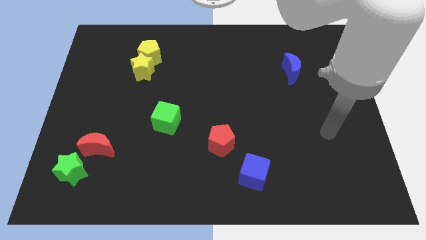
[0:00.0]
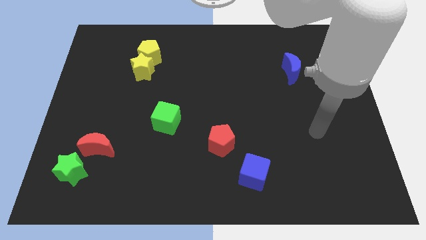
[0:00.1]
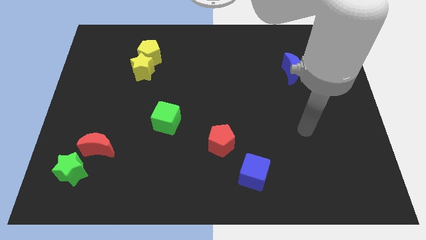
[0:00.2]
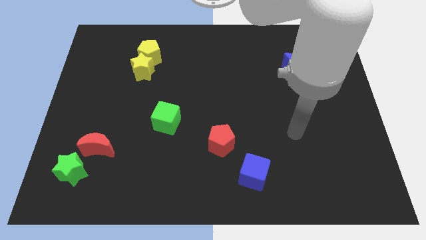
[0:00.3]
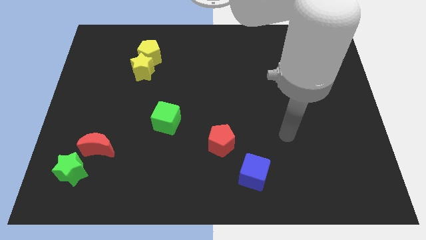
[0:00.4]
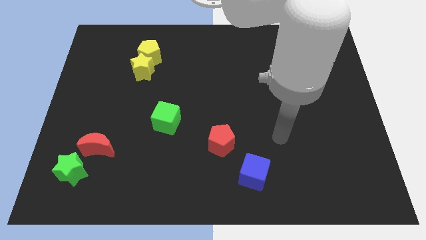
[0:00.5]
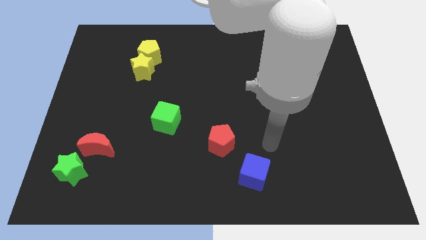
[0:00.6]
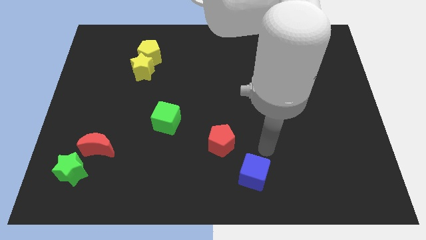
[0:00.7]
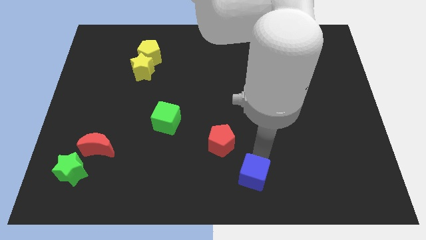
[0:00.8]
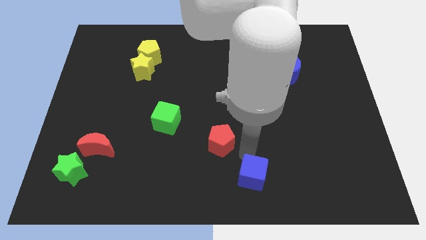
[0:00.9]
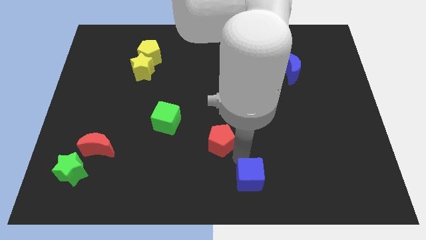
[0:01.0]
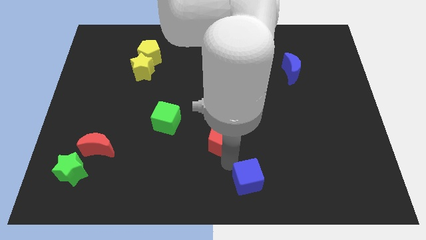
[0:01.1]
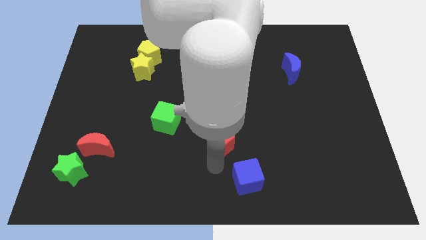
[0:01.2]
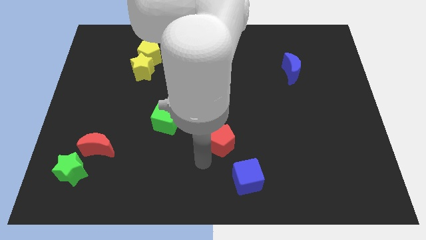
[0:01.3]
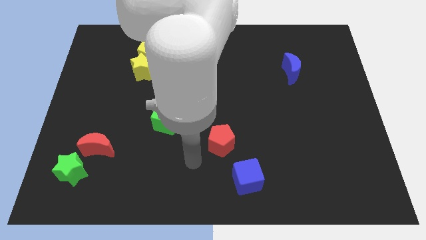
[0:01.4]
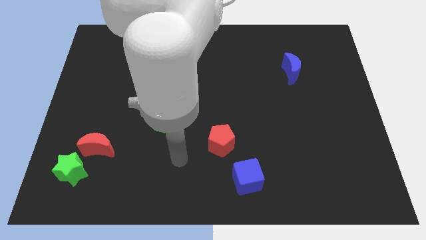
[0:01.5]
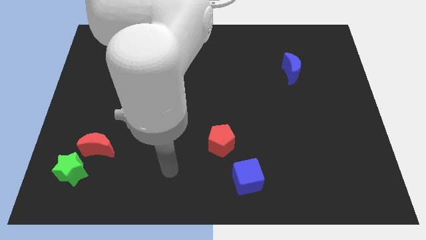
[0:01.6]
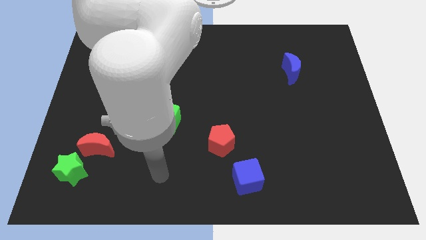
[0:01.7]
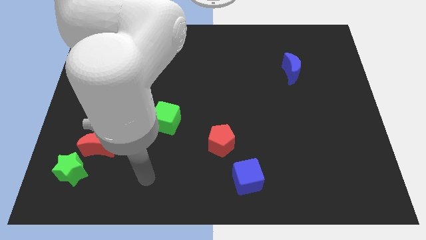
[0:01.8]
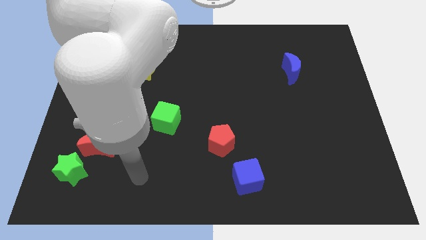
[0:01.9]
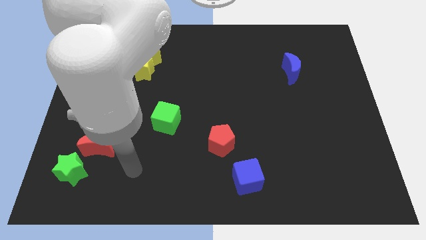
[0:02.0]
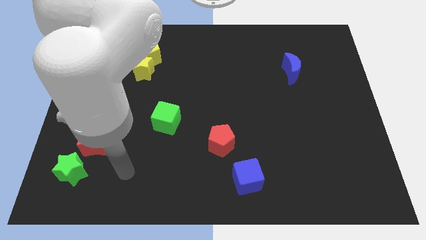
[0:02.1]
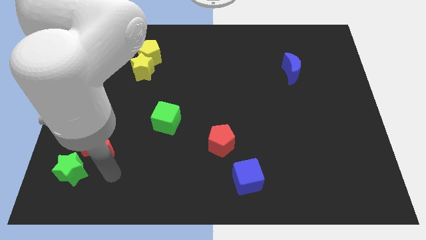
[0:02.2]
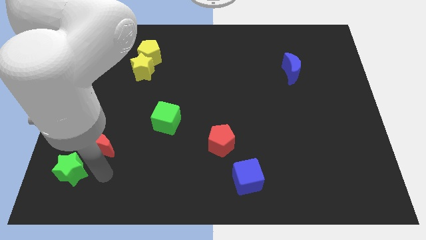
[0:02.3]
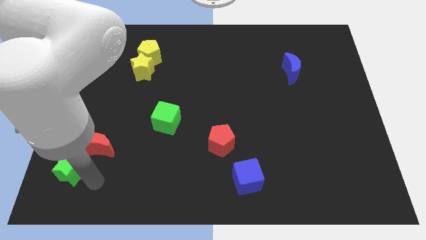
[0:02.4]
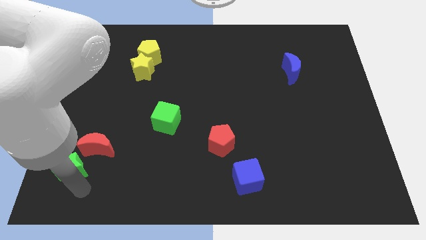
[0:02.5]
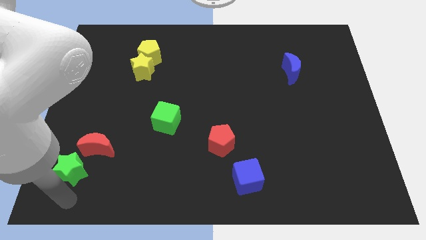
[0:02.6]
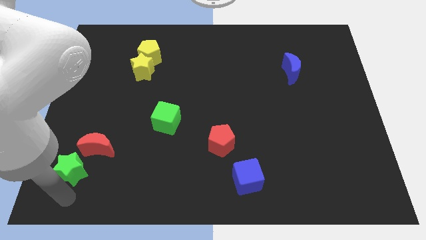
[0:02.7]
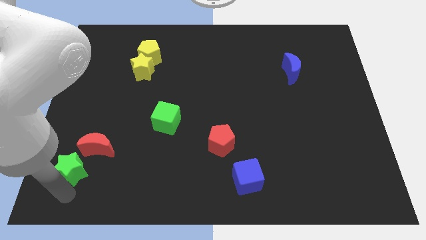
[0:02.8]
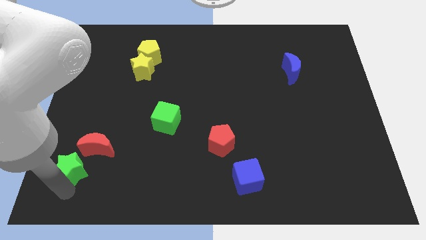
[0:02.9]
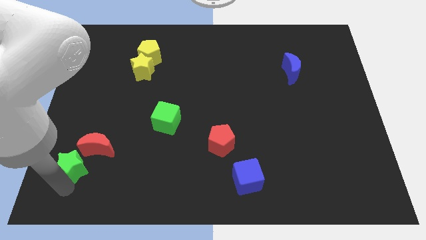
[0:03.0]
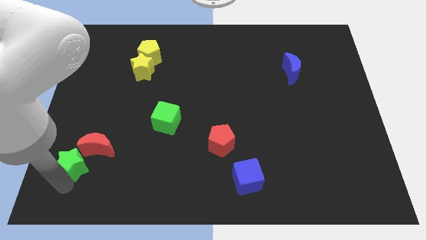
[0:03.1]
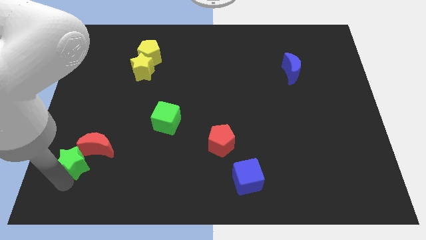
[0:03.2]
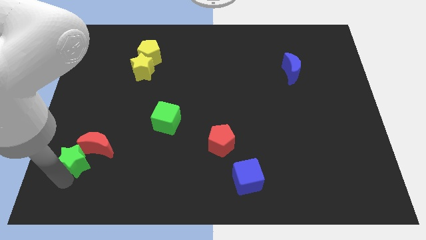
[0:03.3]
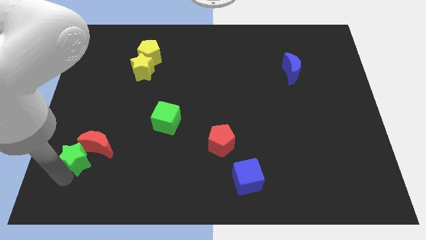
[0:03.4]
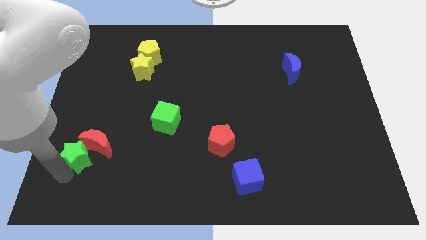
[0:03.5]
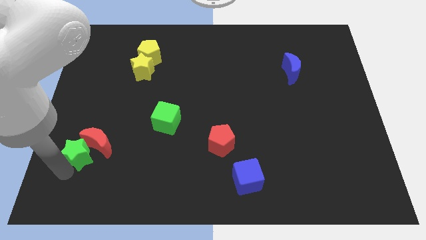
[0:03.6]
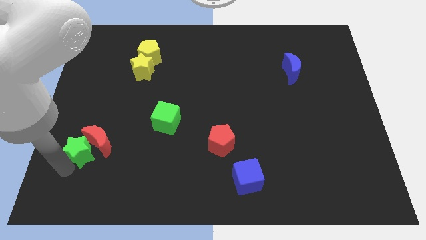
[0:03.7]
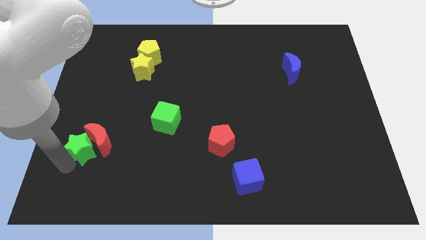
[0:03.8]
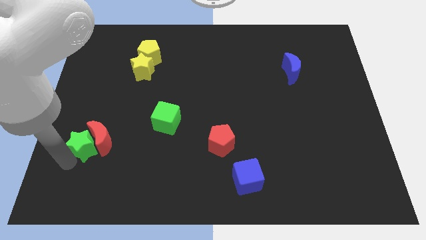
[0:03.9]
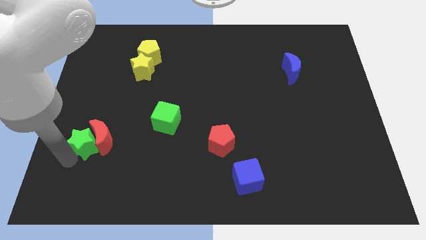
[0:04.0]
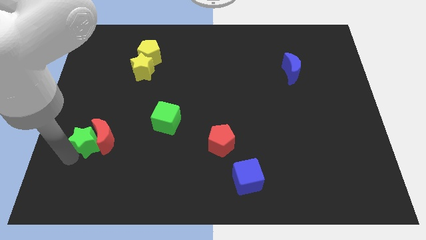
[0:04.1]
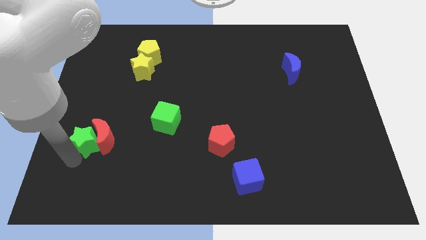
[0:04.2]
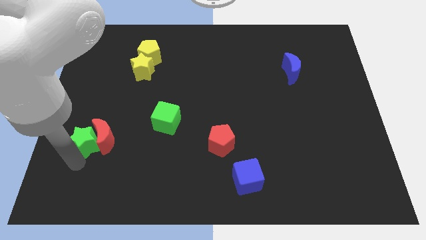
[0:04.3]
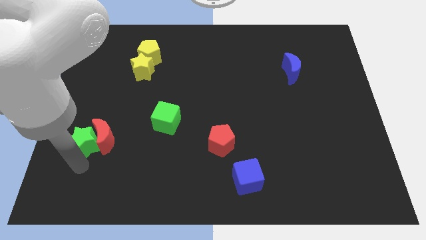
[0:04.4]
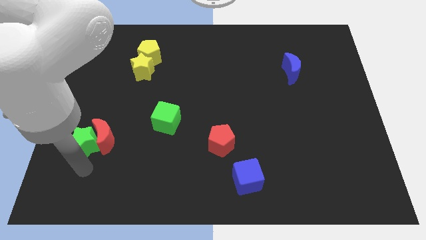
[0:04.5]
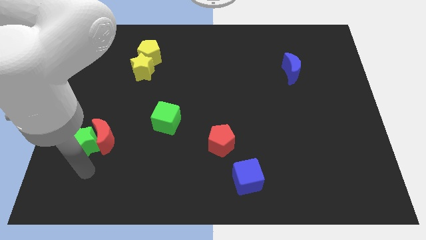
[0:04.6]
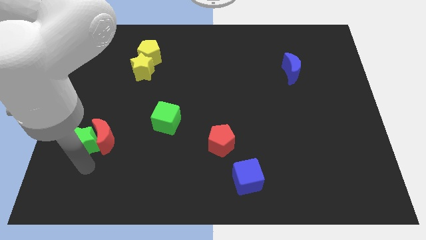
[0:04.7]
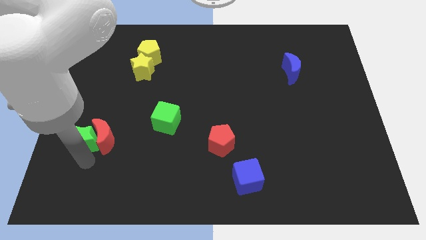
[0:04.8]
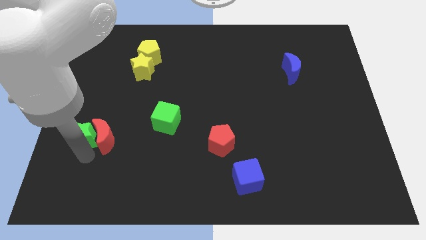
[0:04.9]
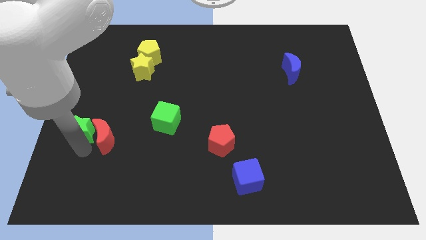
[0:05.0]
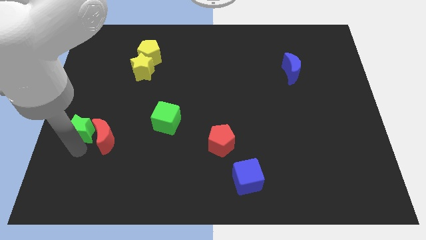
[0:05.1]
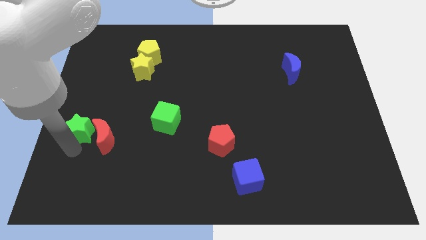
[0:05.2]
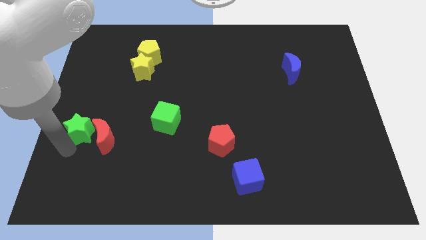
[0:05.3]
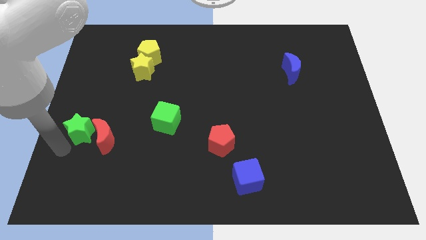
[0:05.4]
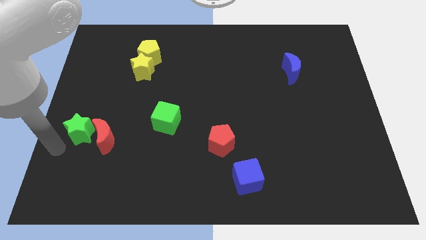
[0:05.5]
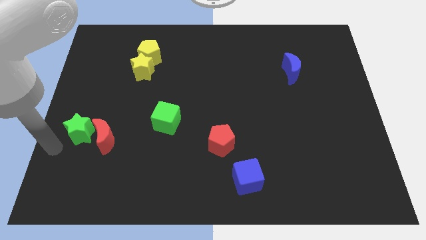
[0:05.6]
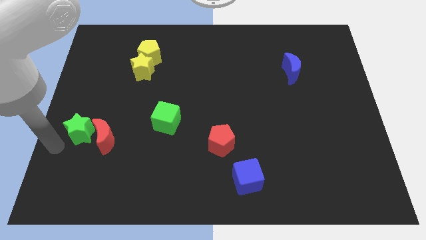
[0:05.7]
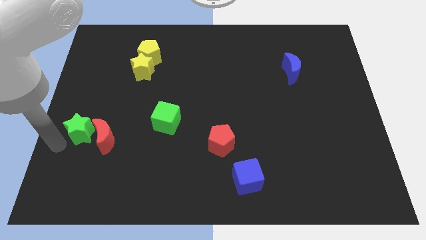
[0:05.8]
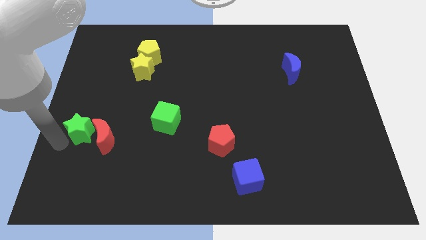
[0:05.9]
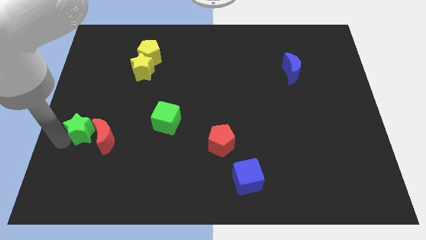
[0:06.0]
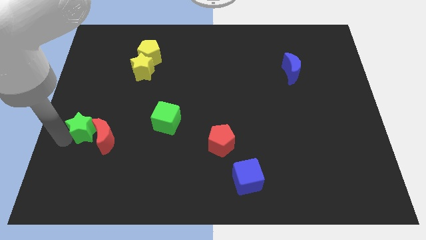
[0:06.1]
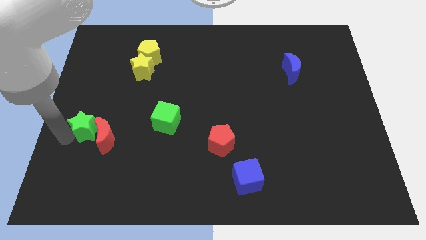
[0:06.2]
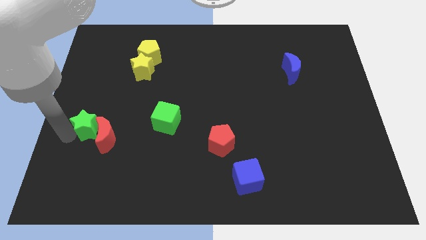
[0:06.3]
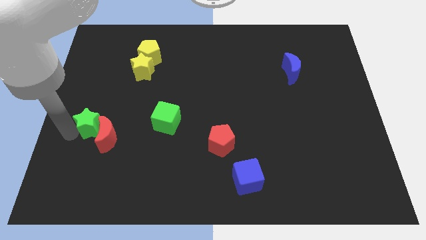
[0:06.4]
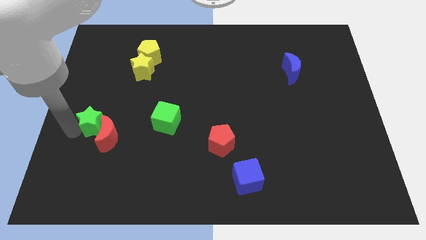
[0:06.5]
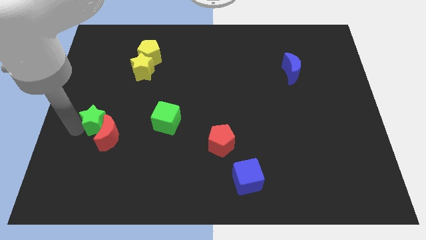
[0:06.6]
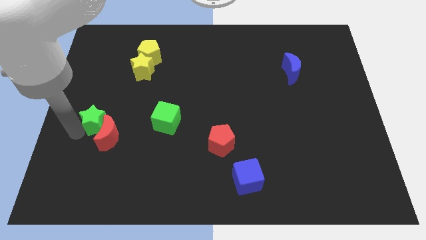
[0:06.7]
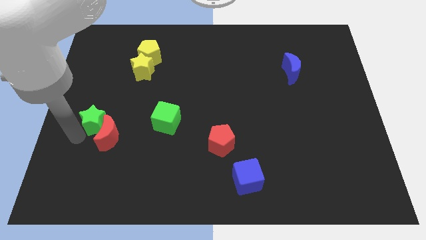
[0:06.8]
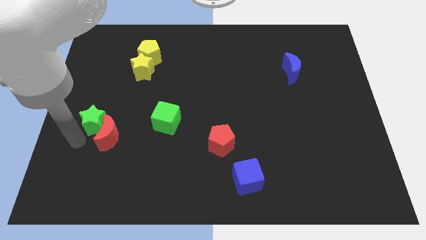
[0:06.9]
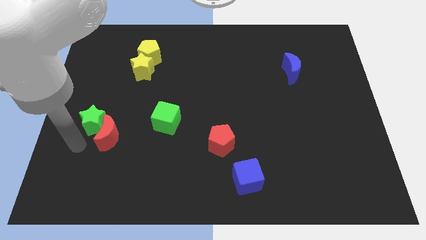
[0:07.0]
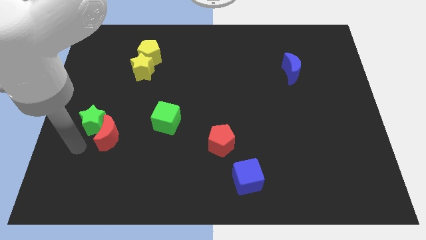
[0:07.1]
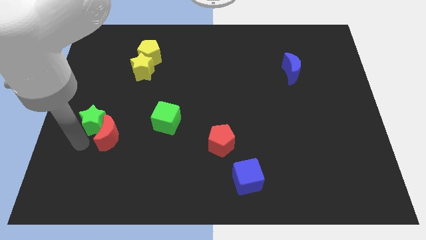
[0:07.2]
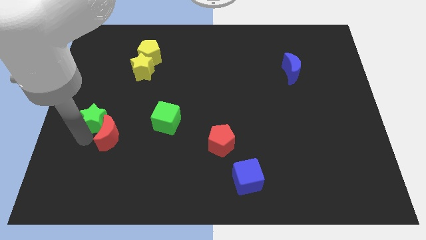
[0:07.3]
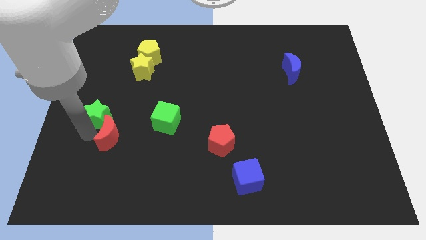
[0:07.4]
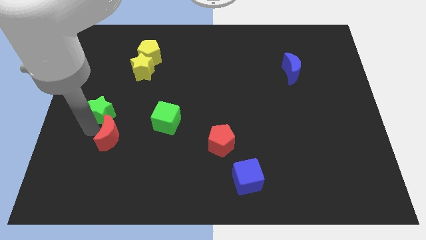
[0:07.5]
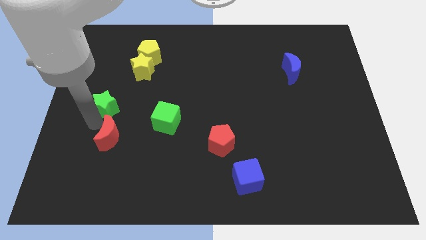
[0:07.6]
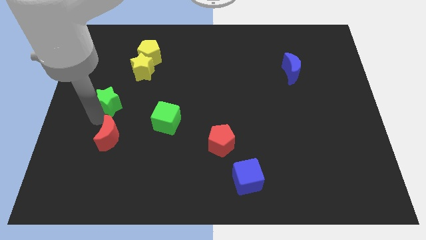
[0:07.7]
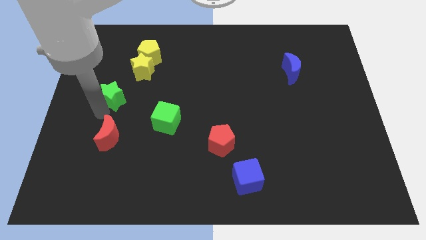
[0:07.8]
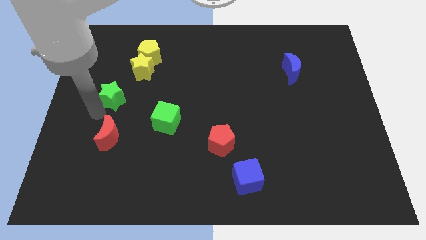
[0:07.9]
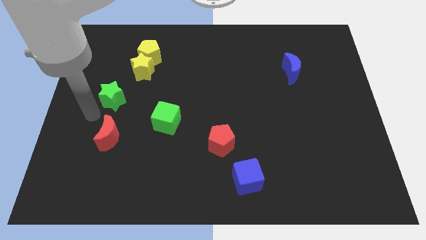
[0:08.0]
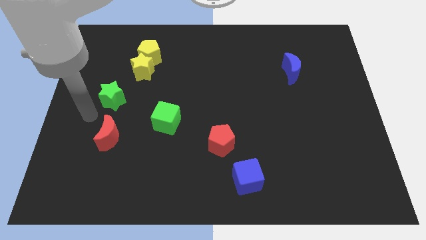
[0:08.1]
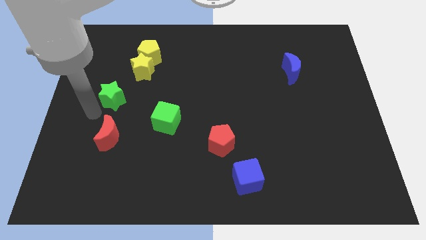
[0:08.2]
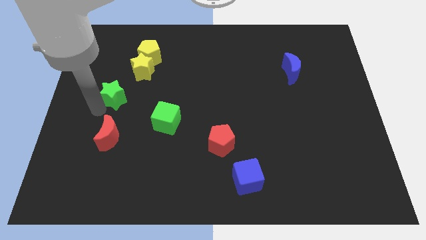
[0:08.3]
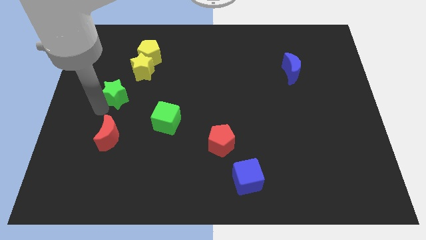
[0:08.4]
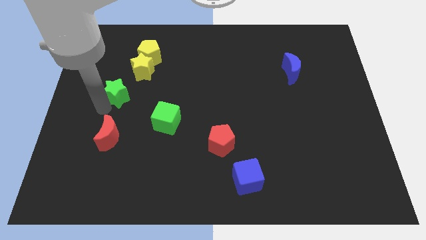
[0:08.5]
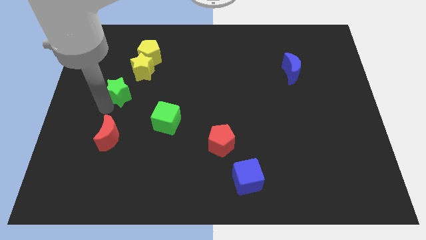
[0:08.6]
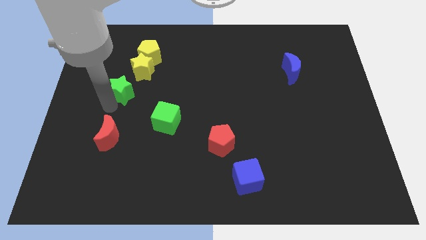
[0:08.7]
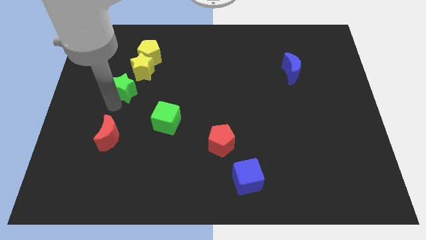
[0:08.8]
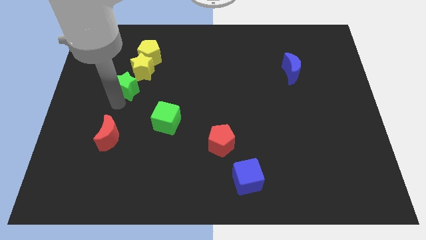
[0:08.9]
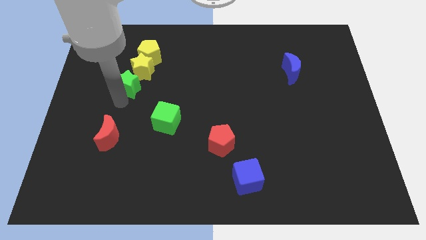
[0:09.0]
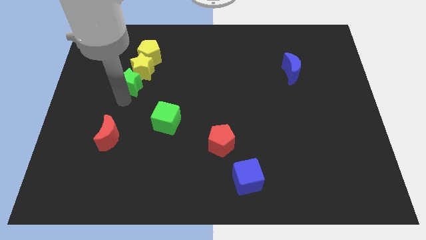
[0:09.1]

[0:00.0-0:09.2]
slide the green star close to the yellow star
